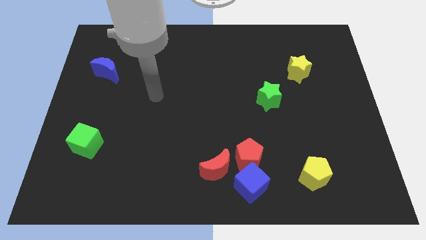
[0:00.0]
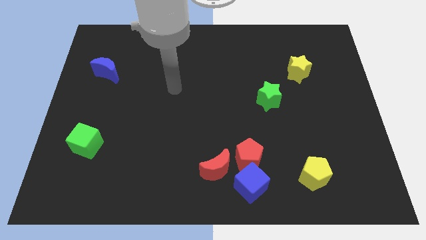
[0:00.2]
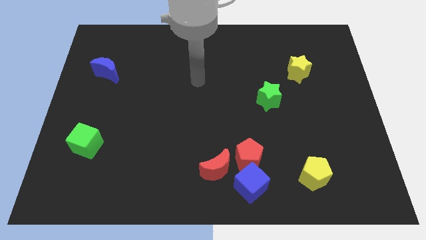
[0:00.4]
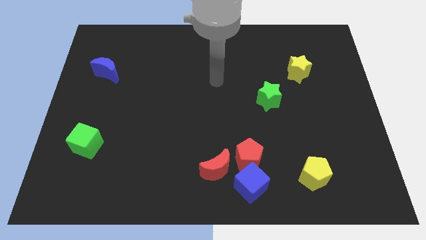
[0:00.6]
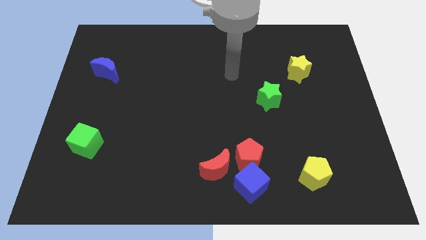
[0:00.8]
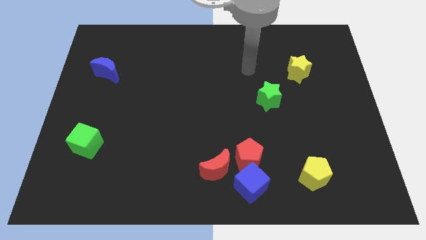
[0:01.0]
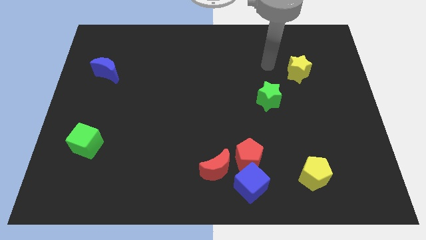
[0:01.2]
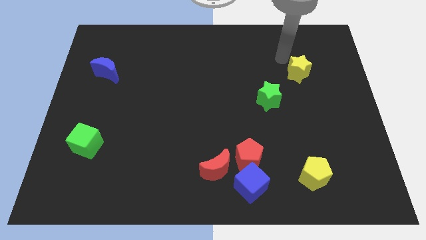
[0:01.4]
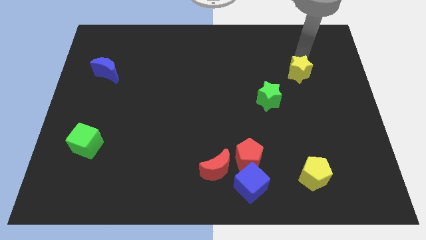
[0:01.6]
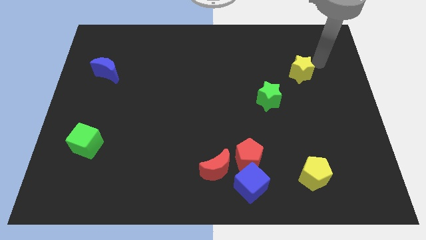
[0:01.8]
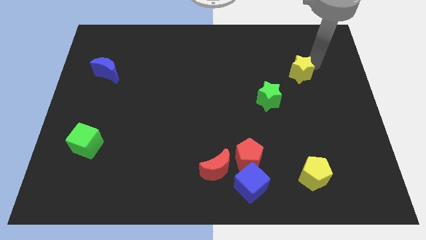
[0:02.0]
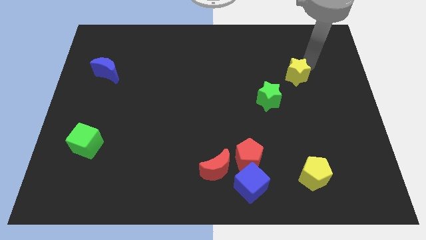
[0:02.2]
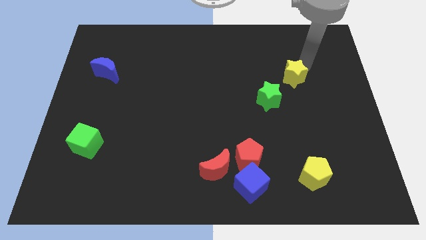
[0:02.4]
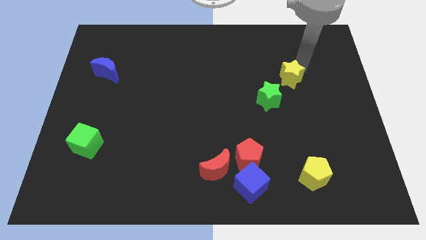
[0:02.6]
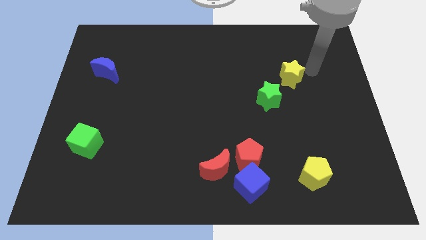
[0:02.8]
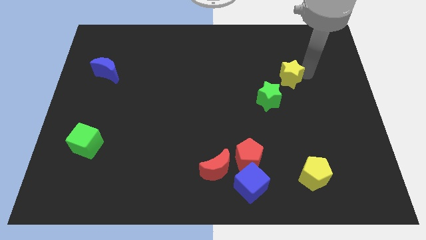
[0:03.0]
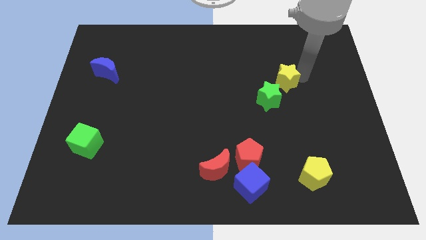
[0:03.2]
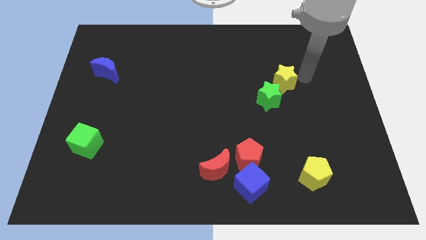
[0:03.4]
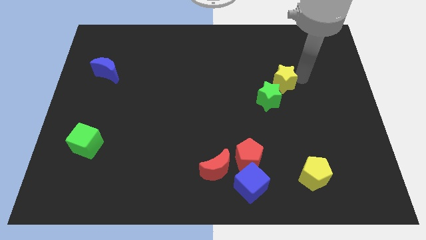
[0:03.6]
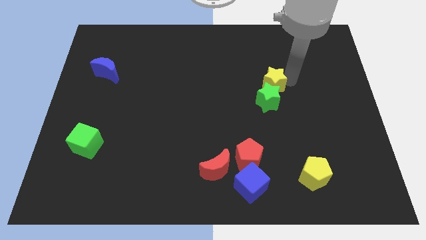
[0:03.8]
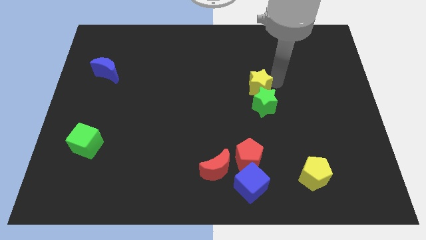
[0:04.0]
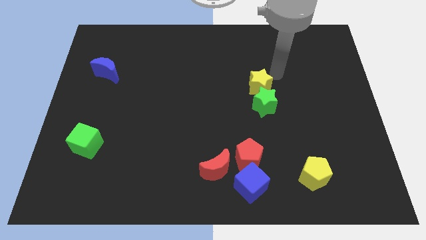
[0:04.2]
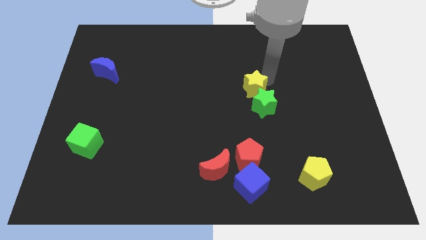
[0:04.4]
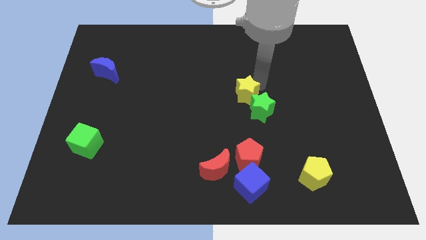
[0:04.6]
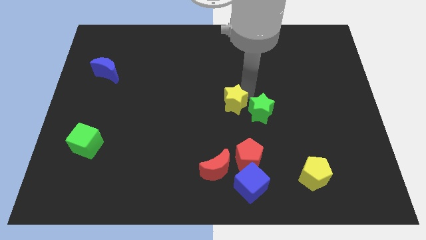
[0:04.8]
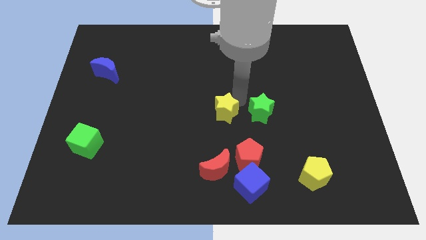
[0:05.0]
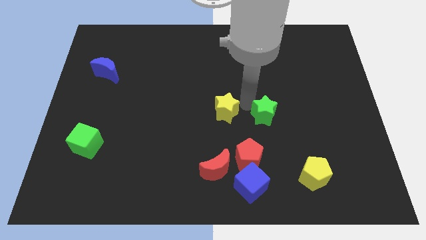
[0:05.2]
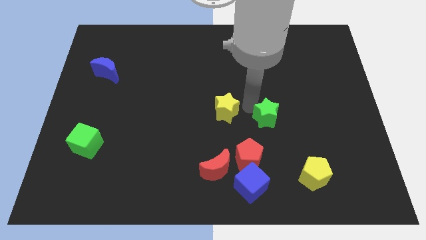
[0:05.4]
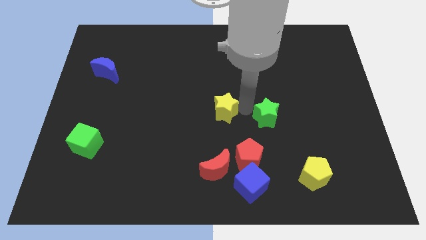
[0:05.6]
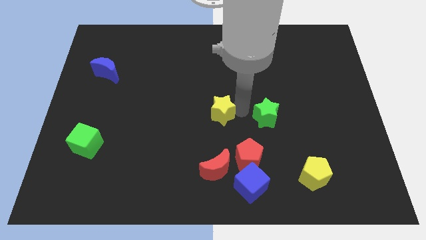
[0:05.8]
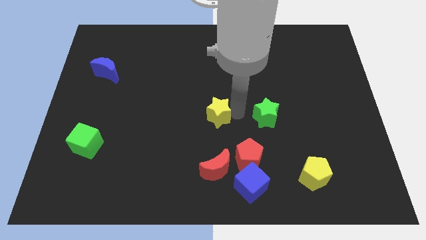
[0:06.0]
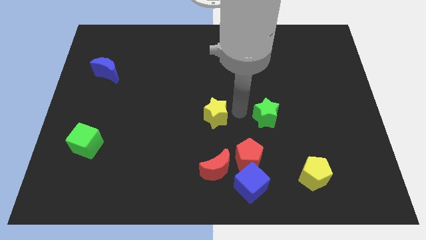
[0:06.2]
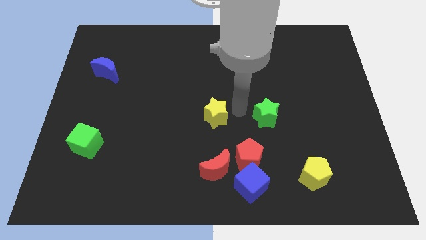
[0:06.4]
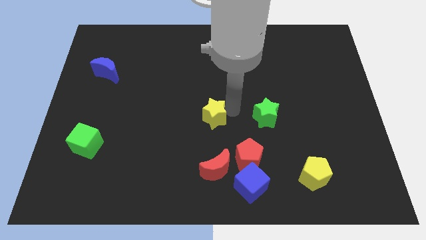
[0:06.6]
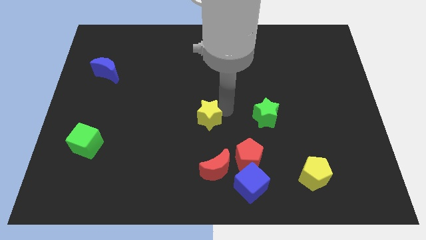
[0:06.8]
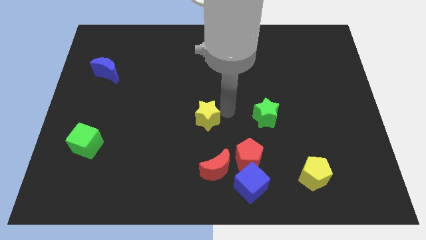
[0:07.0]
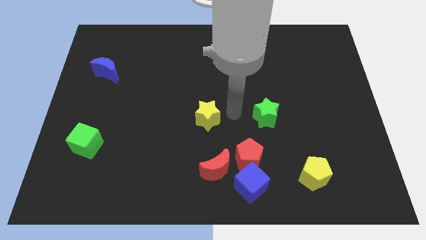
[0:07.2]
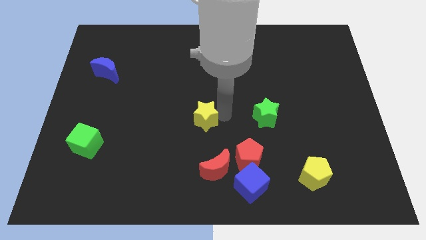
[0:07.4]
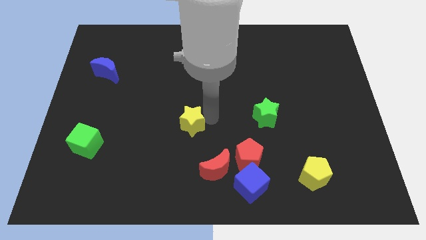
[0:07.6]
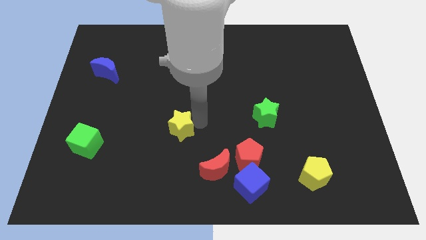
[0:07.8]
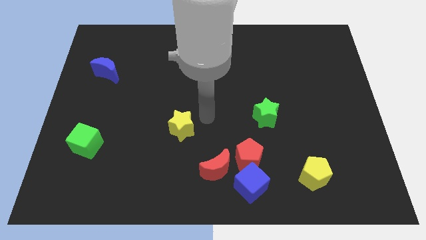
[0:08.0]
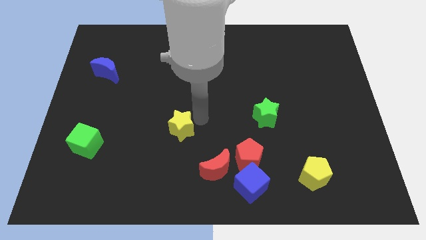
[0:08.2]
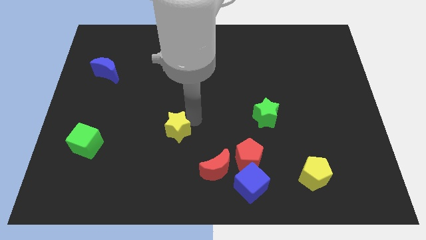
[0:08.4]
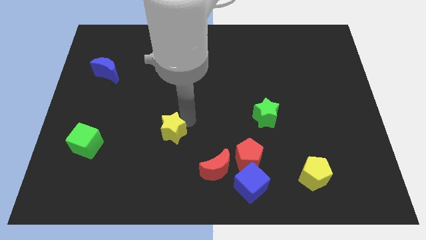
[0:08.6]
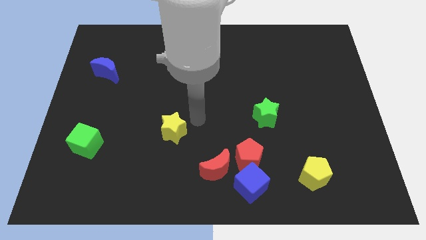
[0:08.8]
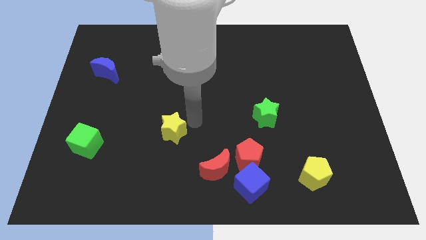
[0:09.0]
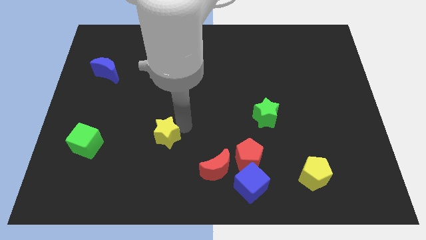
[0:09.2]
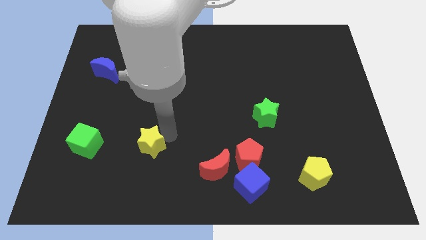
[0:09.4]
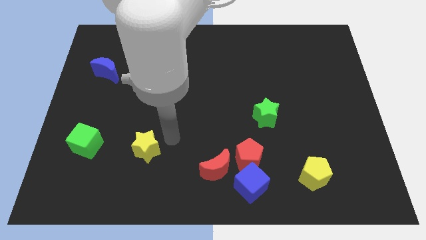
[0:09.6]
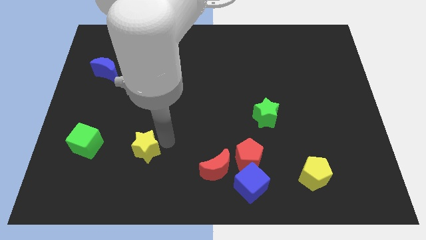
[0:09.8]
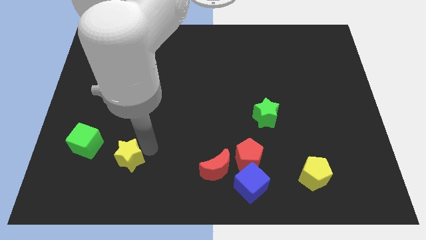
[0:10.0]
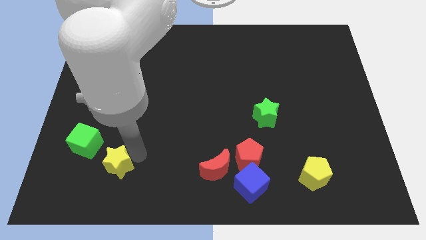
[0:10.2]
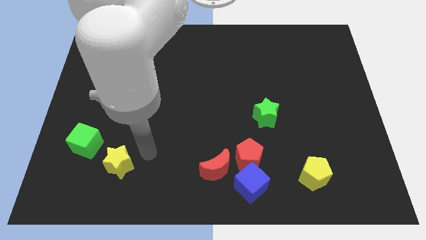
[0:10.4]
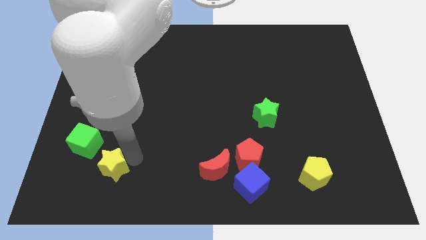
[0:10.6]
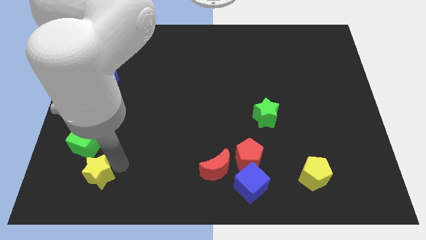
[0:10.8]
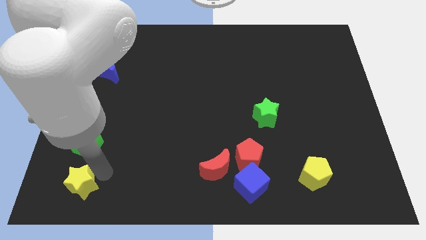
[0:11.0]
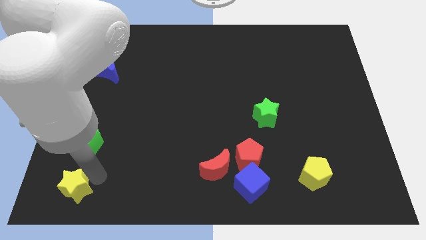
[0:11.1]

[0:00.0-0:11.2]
push the yellow star to the bottom left corner
